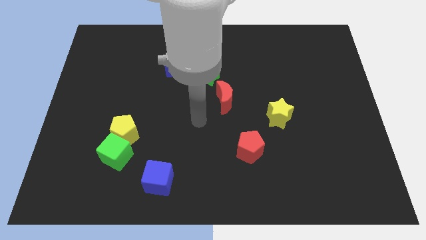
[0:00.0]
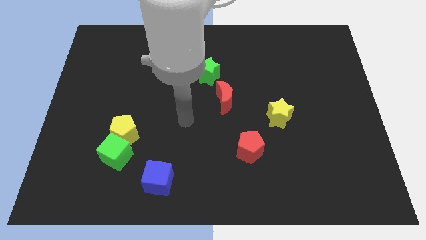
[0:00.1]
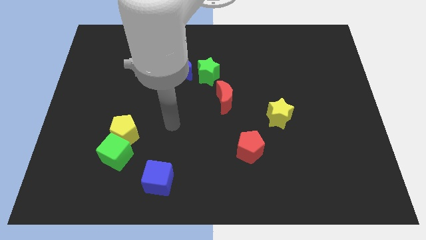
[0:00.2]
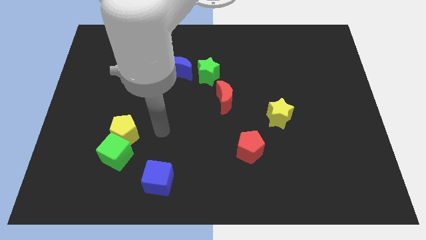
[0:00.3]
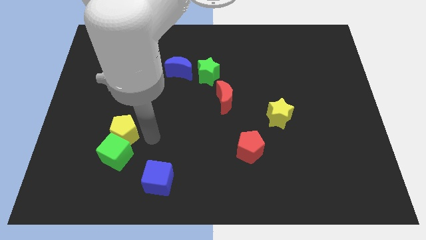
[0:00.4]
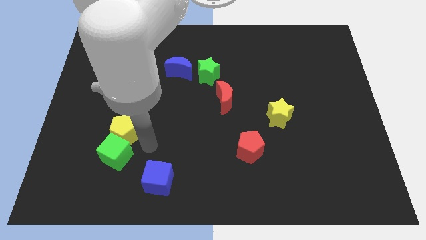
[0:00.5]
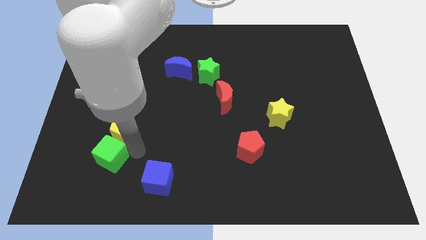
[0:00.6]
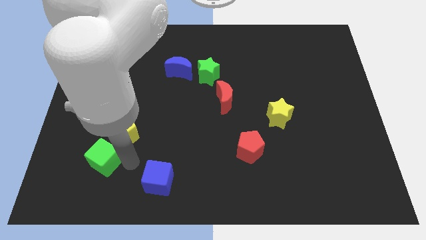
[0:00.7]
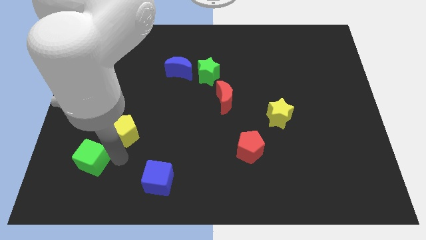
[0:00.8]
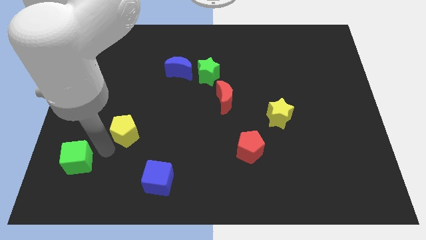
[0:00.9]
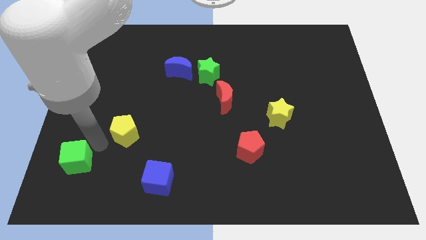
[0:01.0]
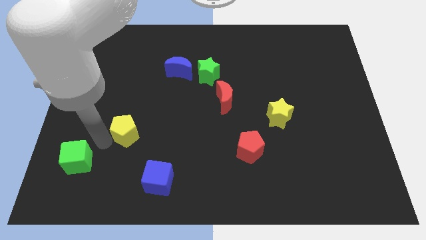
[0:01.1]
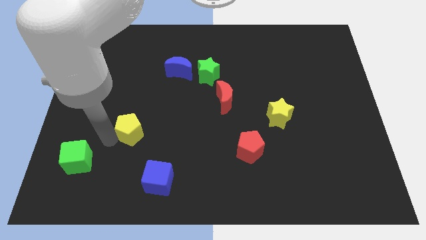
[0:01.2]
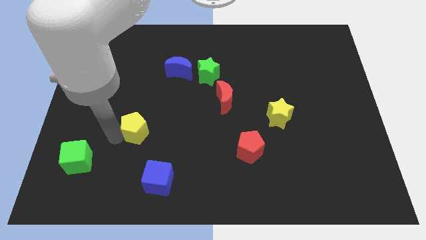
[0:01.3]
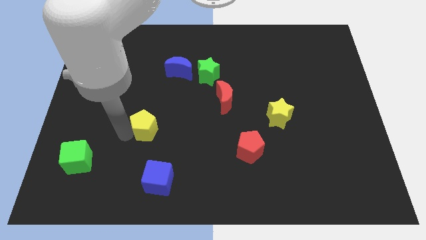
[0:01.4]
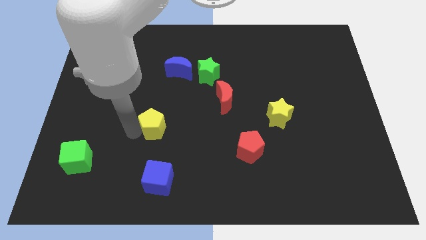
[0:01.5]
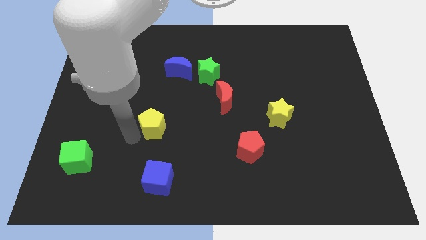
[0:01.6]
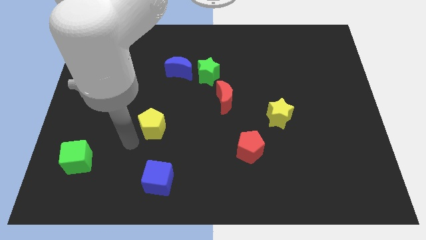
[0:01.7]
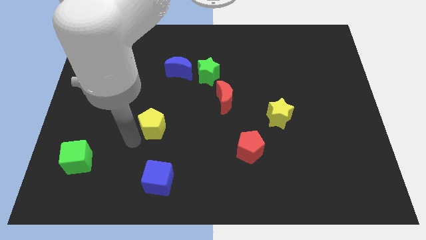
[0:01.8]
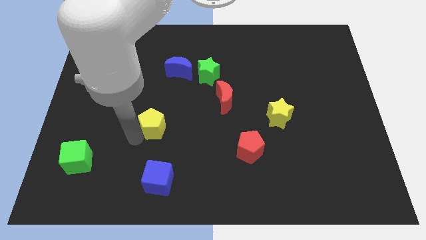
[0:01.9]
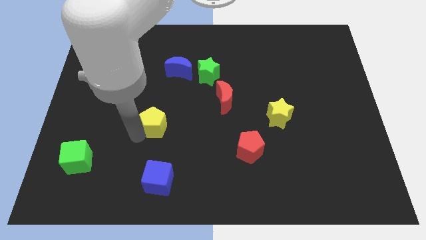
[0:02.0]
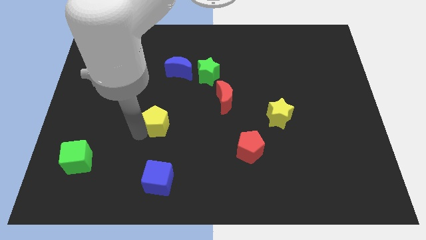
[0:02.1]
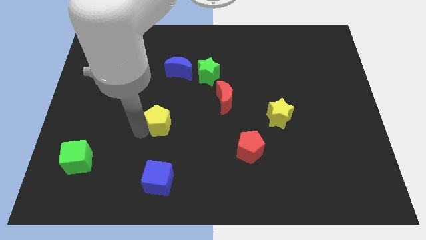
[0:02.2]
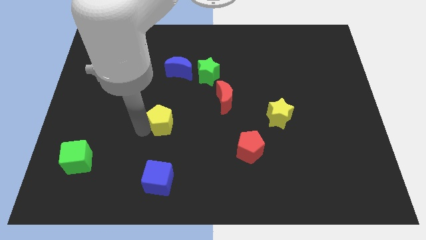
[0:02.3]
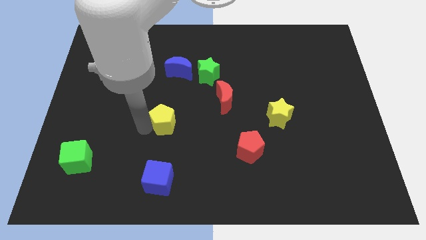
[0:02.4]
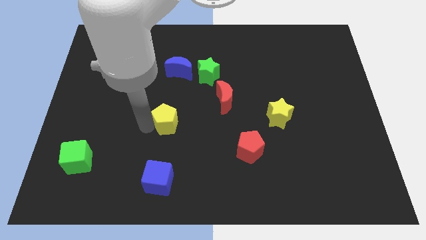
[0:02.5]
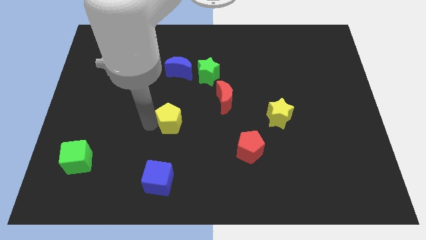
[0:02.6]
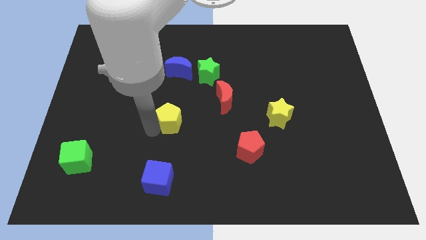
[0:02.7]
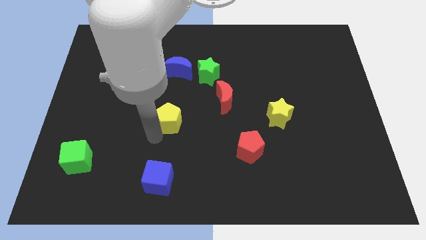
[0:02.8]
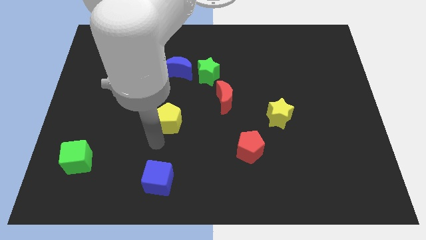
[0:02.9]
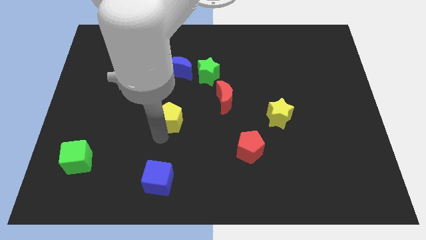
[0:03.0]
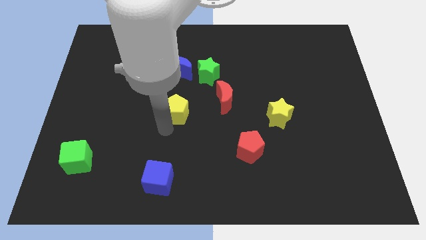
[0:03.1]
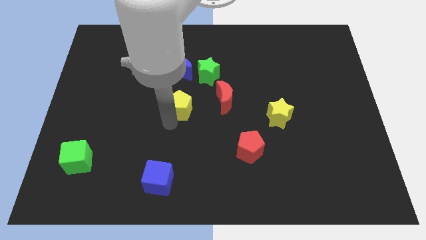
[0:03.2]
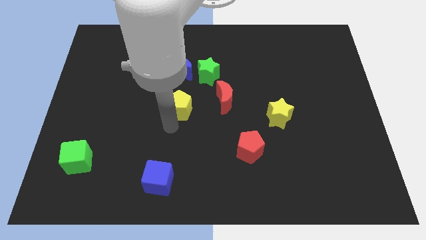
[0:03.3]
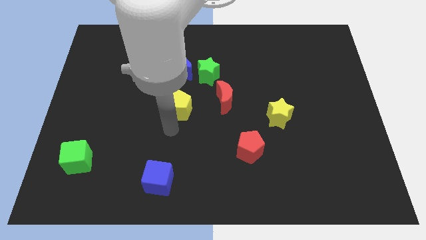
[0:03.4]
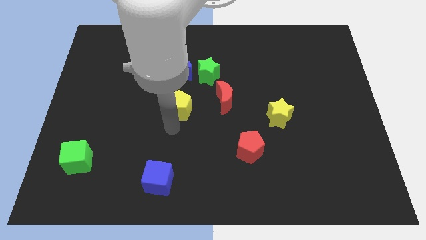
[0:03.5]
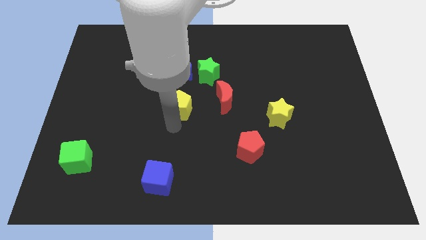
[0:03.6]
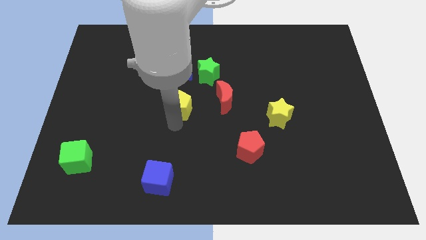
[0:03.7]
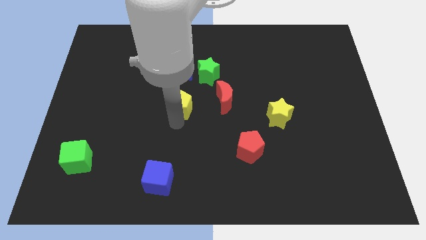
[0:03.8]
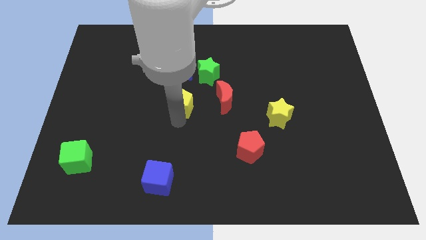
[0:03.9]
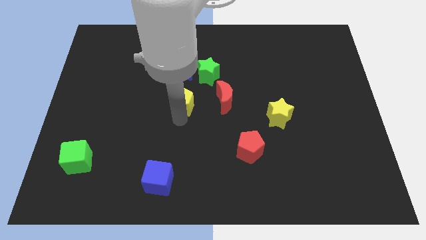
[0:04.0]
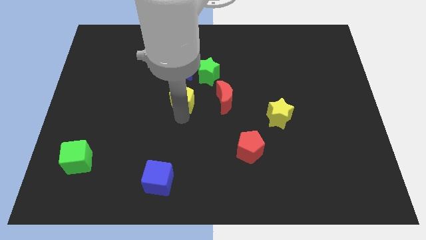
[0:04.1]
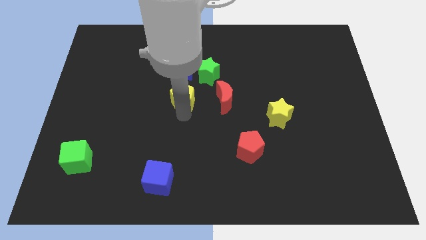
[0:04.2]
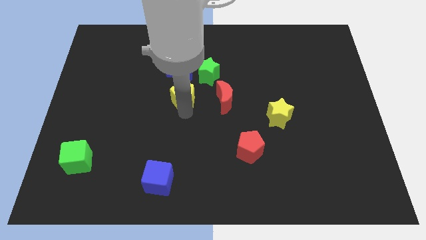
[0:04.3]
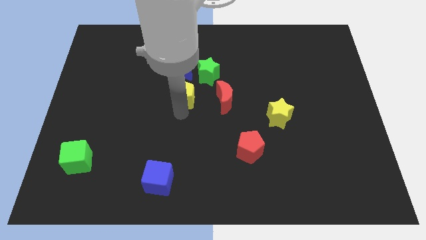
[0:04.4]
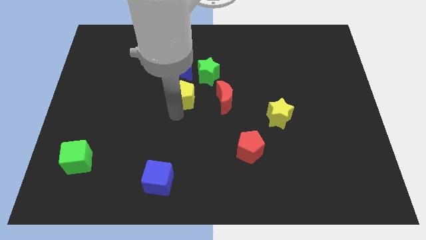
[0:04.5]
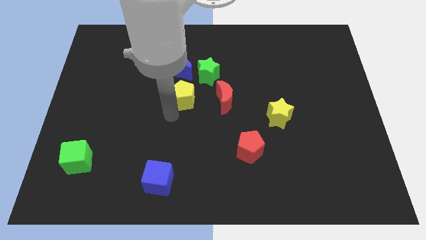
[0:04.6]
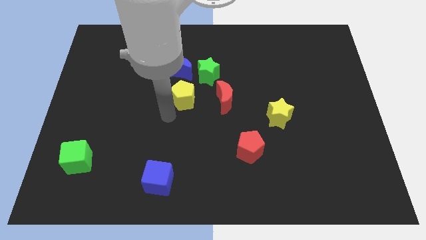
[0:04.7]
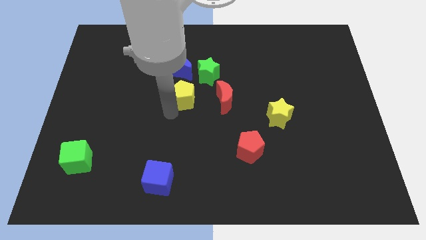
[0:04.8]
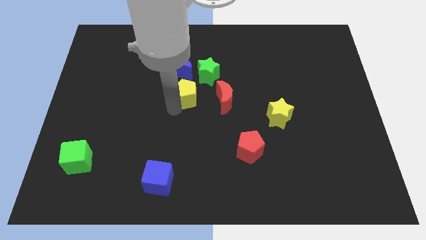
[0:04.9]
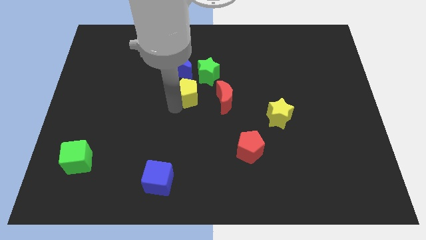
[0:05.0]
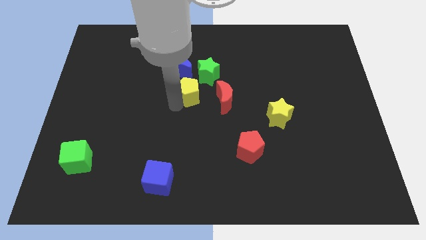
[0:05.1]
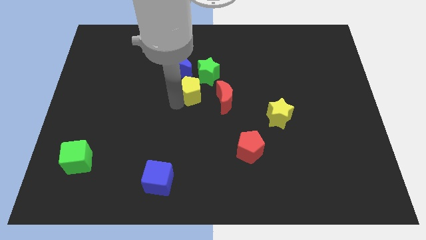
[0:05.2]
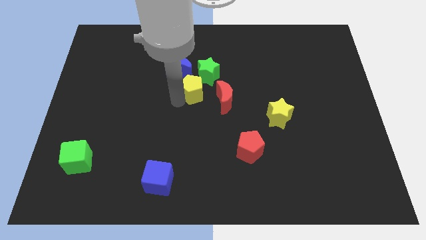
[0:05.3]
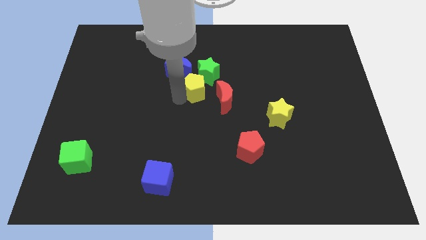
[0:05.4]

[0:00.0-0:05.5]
push the yellow pentagon next to the green star

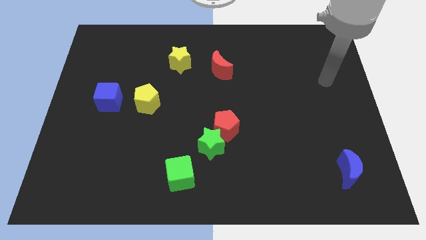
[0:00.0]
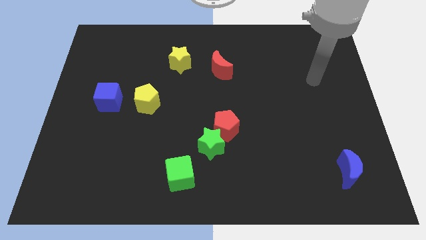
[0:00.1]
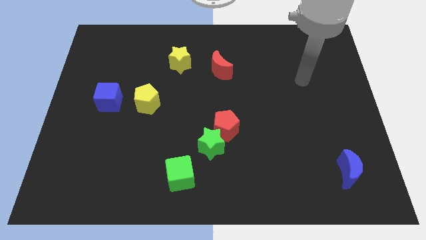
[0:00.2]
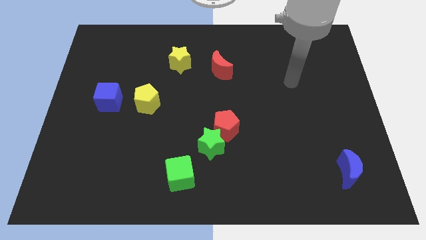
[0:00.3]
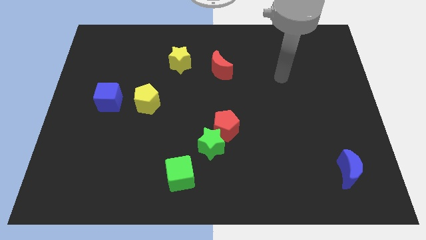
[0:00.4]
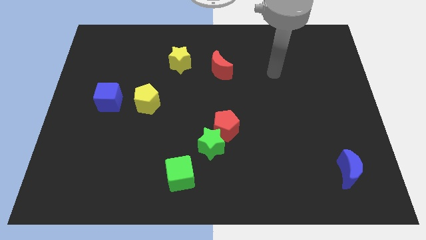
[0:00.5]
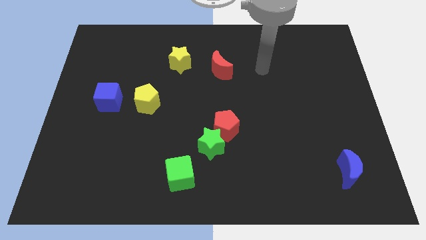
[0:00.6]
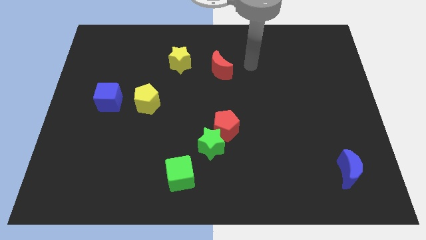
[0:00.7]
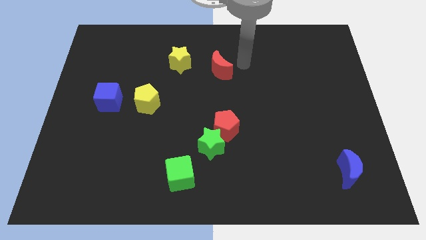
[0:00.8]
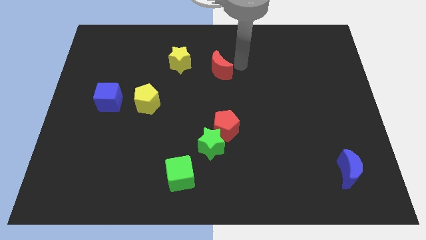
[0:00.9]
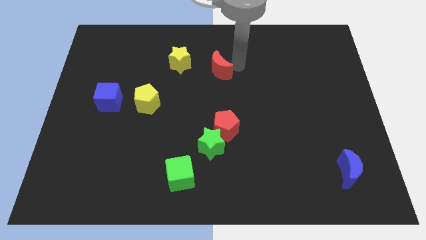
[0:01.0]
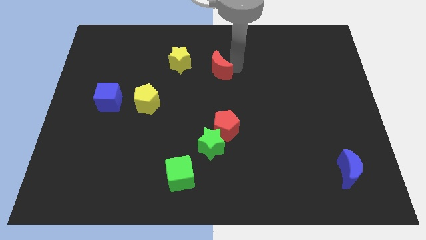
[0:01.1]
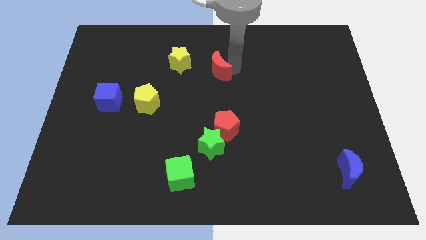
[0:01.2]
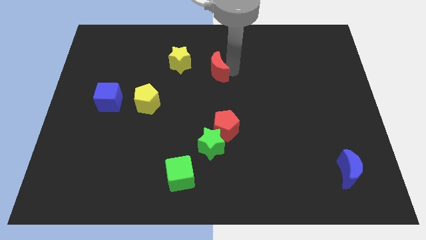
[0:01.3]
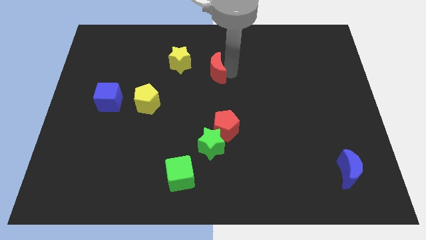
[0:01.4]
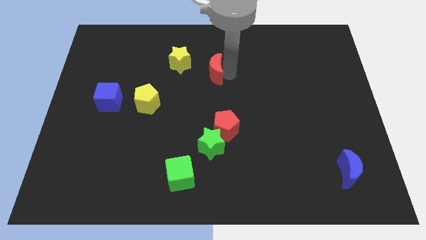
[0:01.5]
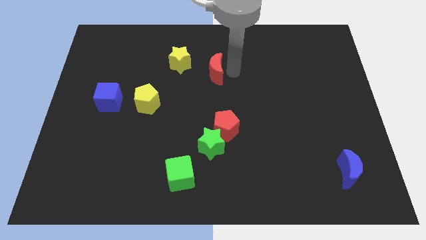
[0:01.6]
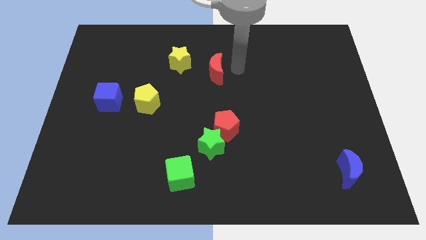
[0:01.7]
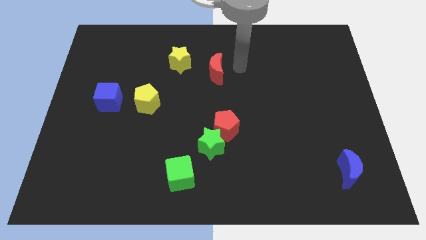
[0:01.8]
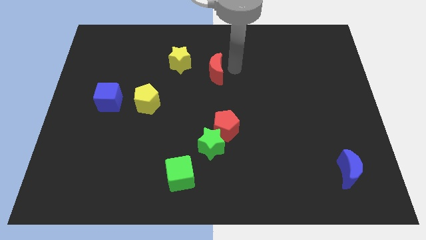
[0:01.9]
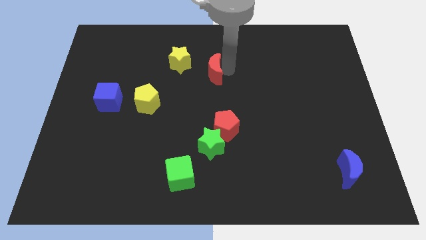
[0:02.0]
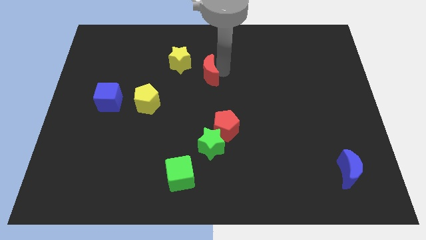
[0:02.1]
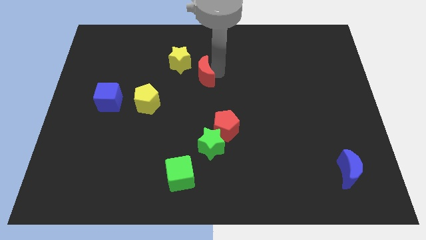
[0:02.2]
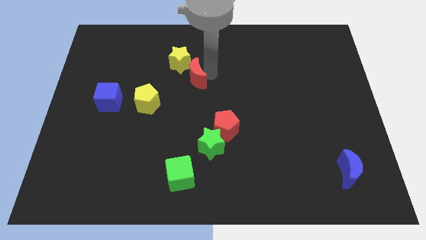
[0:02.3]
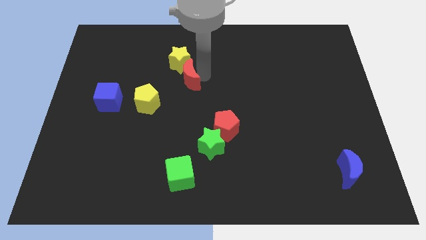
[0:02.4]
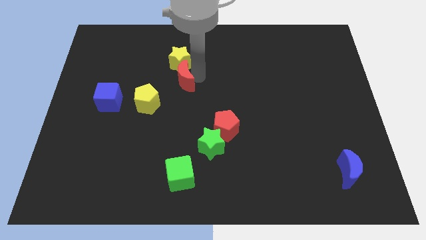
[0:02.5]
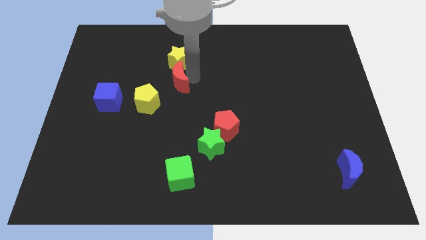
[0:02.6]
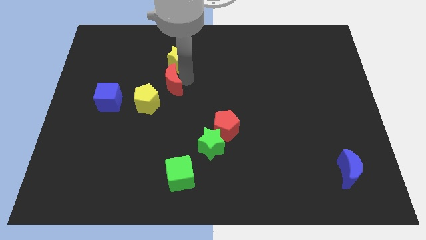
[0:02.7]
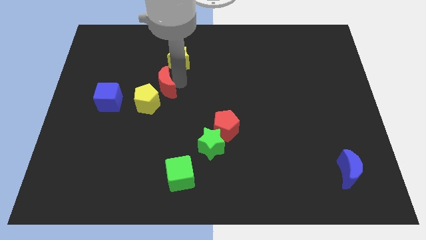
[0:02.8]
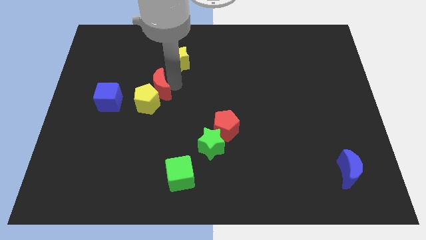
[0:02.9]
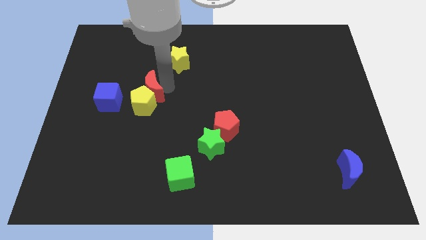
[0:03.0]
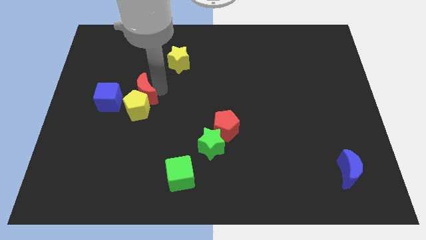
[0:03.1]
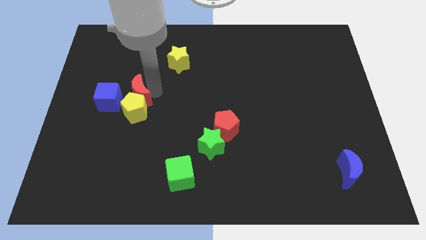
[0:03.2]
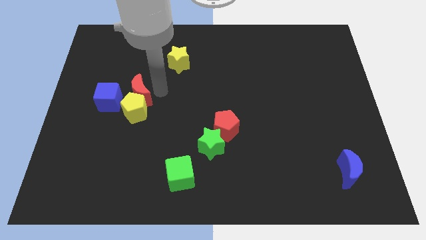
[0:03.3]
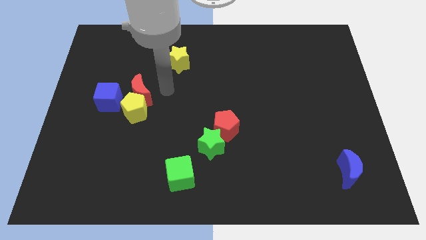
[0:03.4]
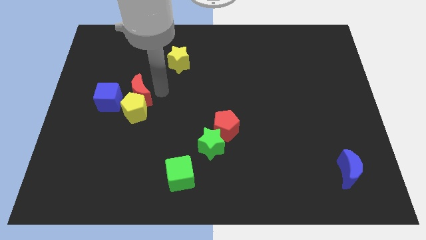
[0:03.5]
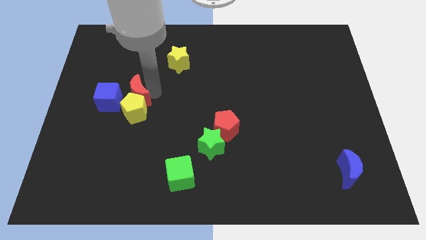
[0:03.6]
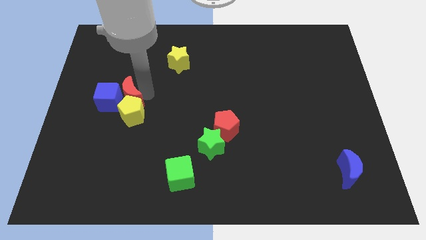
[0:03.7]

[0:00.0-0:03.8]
slide the red moon towards the blue cube
